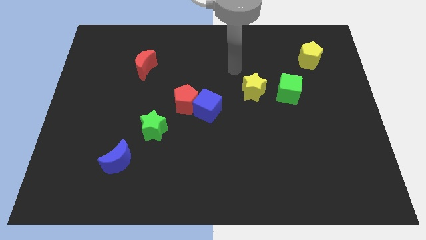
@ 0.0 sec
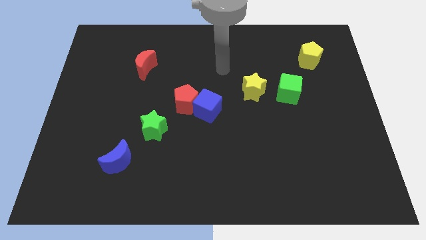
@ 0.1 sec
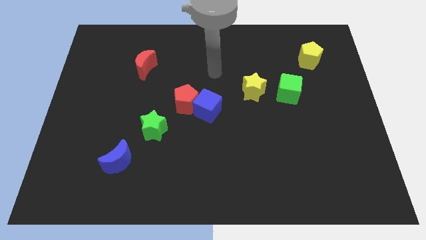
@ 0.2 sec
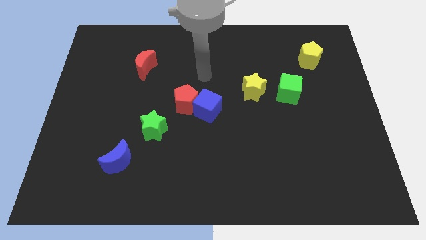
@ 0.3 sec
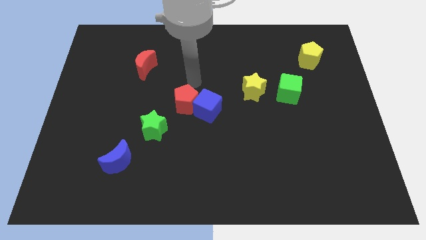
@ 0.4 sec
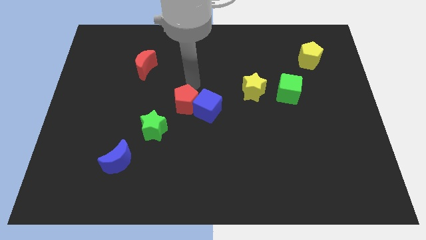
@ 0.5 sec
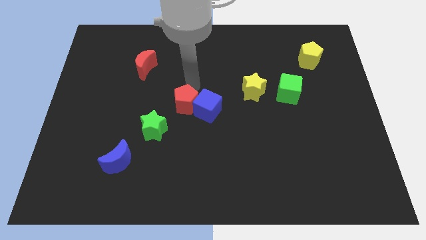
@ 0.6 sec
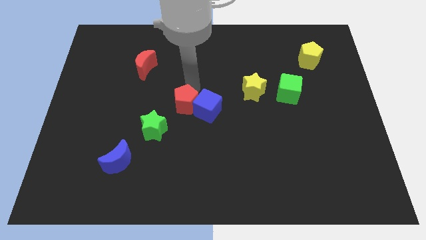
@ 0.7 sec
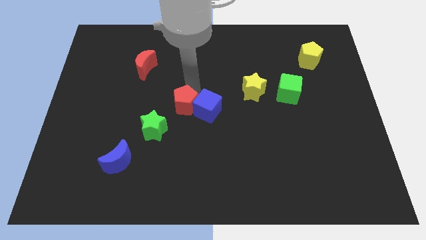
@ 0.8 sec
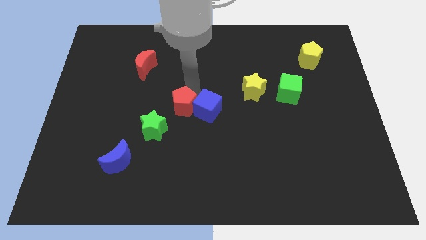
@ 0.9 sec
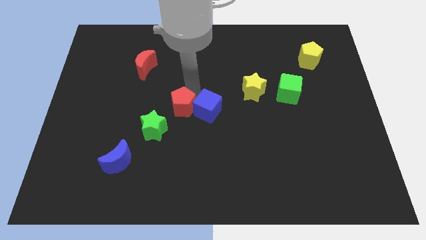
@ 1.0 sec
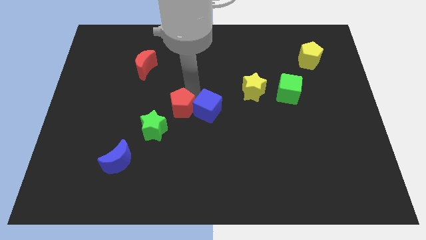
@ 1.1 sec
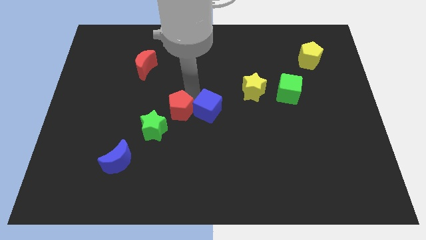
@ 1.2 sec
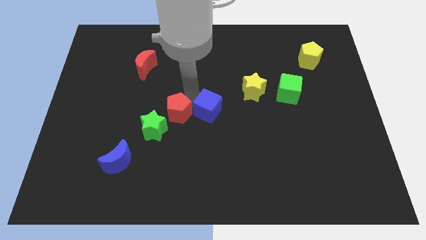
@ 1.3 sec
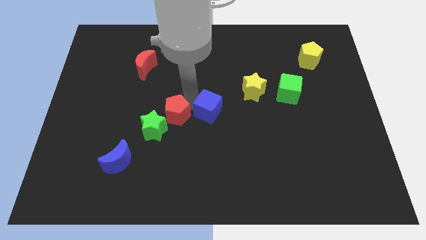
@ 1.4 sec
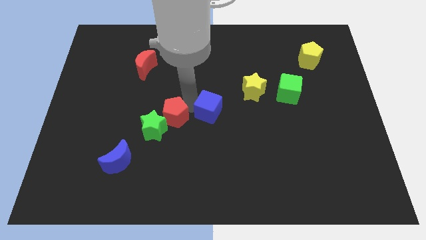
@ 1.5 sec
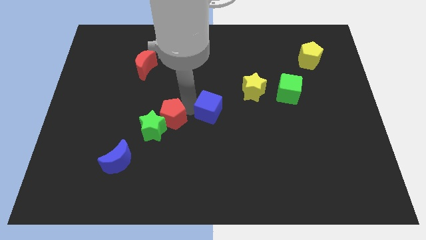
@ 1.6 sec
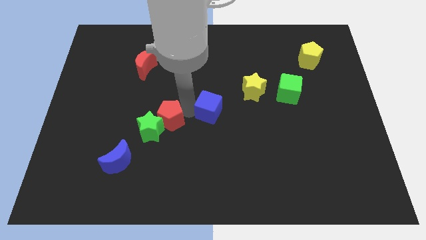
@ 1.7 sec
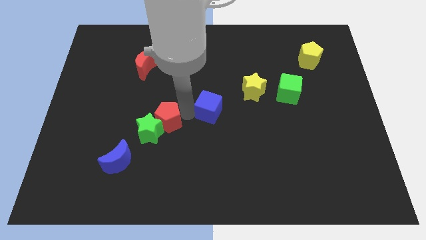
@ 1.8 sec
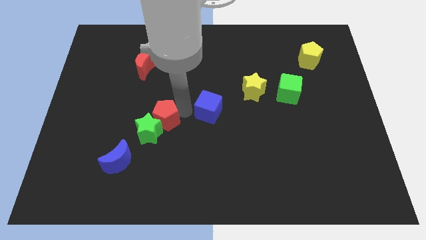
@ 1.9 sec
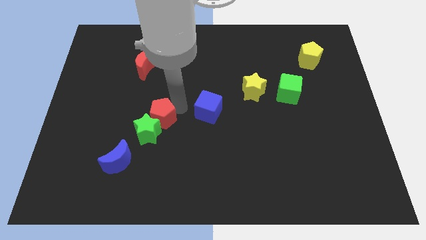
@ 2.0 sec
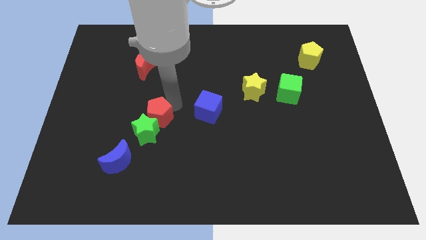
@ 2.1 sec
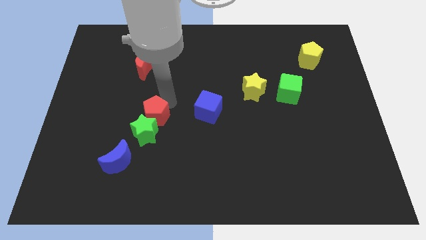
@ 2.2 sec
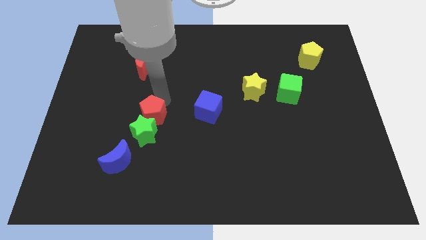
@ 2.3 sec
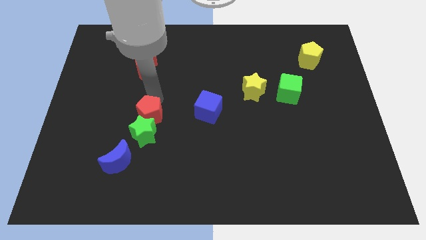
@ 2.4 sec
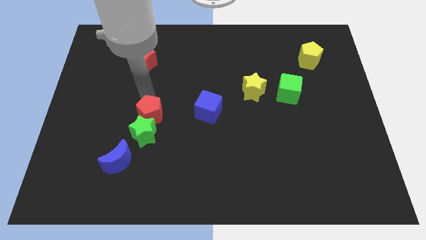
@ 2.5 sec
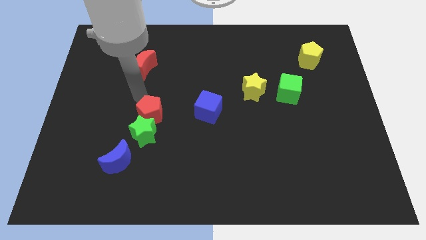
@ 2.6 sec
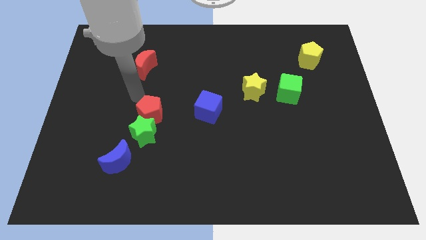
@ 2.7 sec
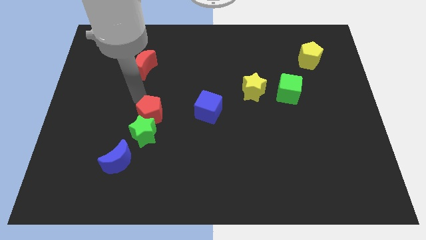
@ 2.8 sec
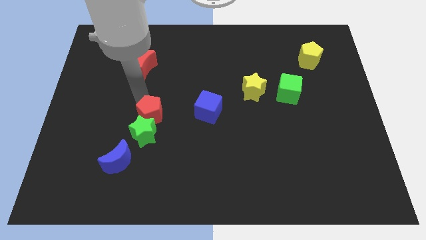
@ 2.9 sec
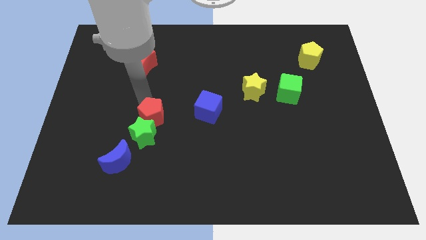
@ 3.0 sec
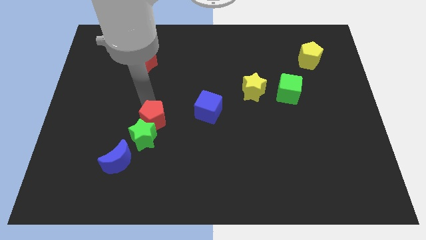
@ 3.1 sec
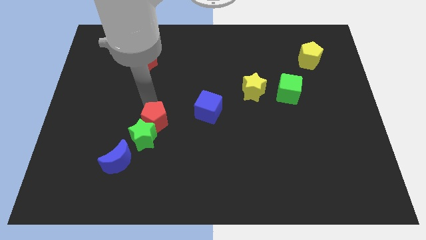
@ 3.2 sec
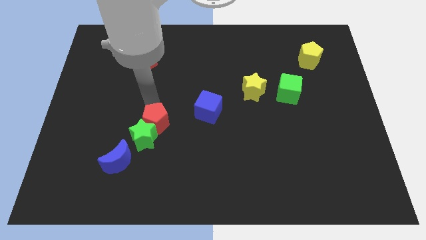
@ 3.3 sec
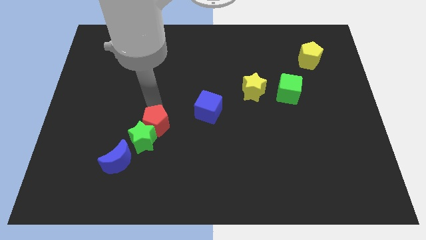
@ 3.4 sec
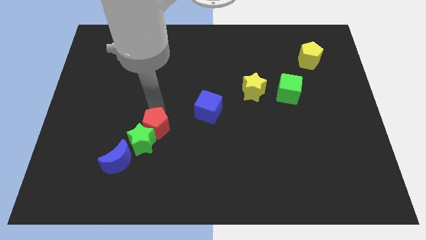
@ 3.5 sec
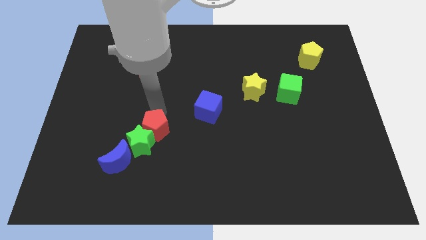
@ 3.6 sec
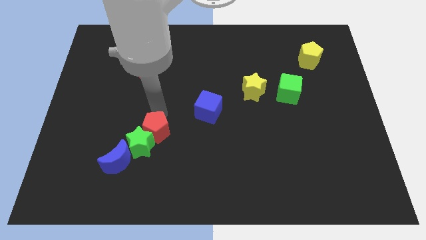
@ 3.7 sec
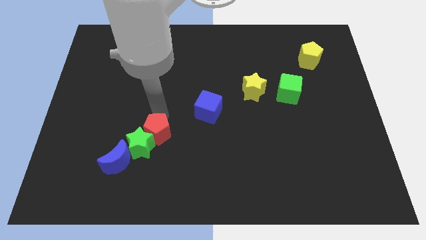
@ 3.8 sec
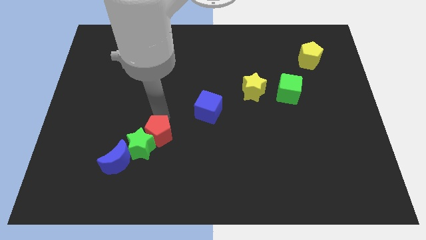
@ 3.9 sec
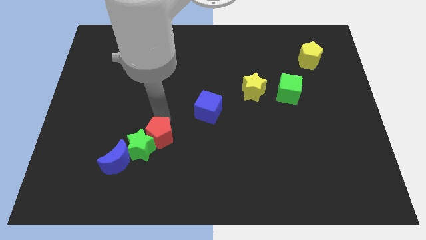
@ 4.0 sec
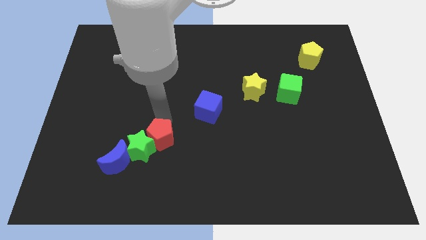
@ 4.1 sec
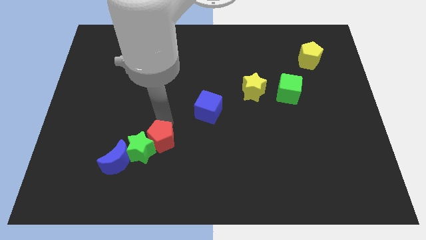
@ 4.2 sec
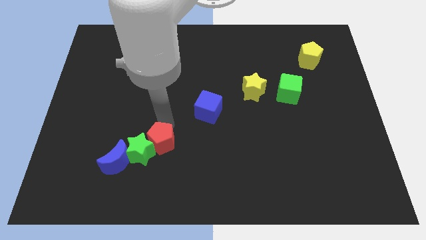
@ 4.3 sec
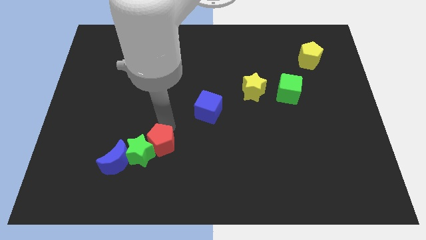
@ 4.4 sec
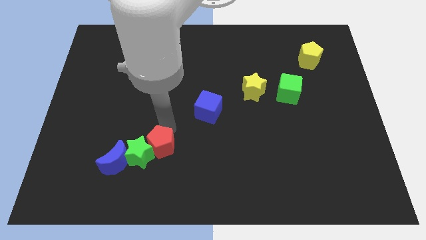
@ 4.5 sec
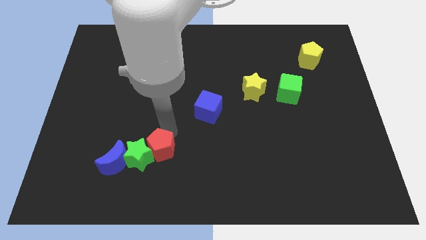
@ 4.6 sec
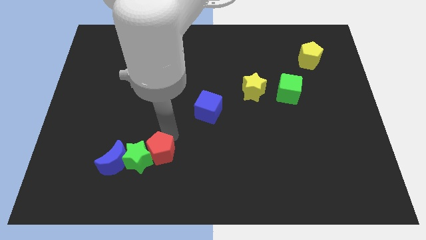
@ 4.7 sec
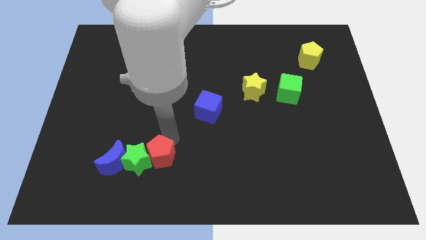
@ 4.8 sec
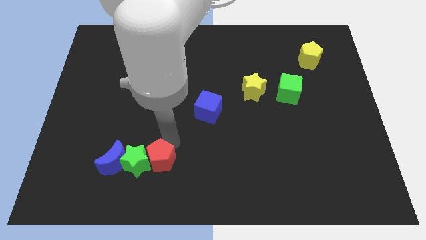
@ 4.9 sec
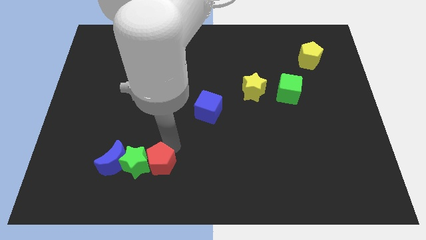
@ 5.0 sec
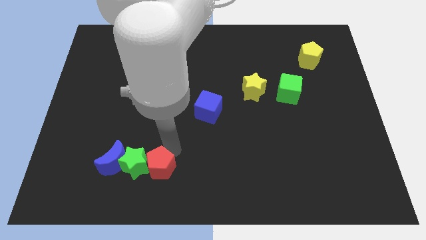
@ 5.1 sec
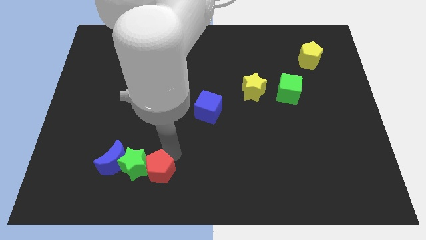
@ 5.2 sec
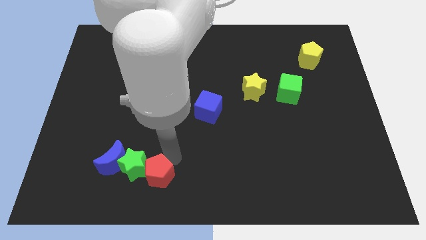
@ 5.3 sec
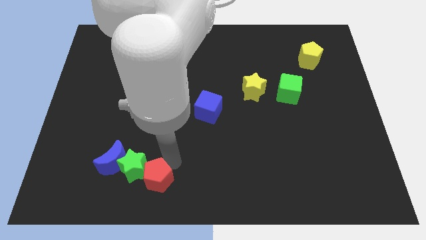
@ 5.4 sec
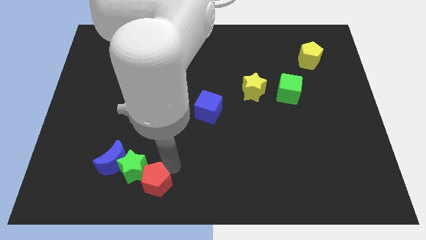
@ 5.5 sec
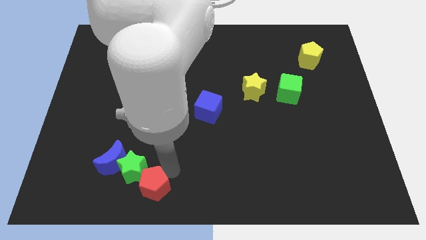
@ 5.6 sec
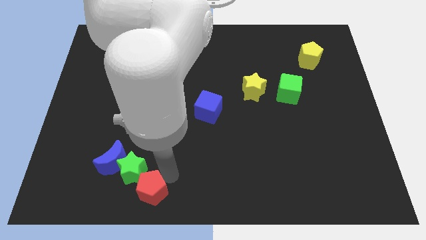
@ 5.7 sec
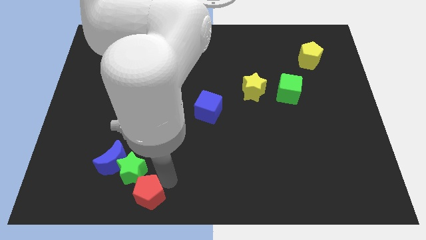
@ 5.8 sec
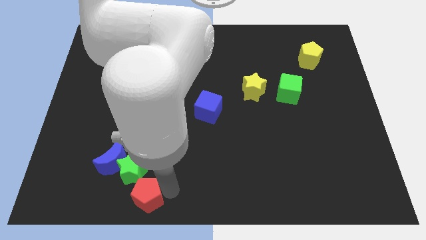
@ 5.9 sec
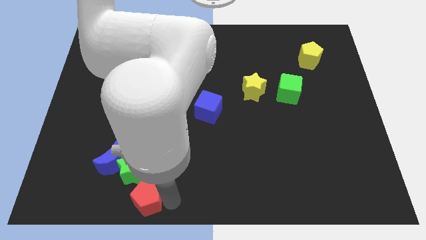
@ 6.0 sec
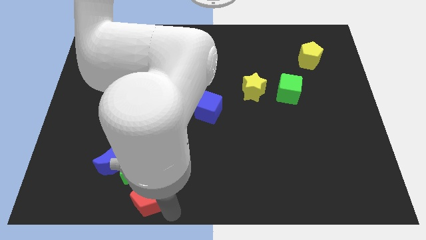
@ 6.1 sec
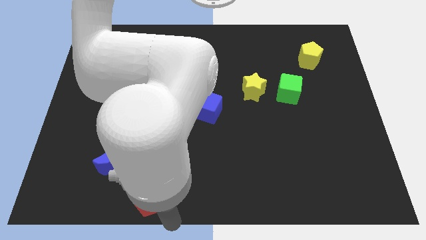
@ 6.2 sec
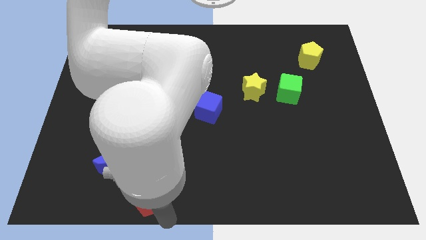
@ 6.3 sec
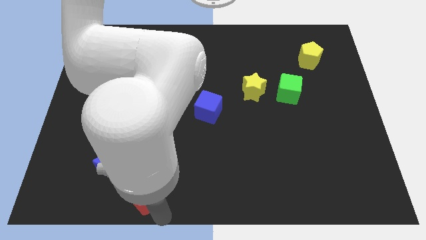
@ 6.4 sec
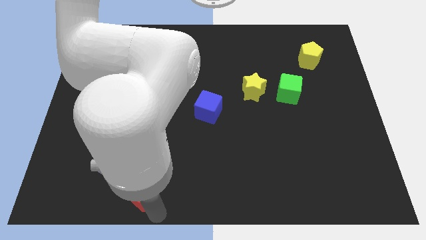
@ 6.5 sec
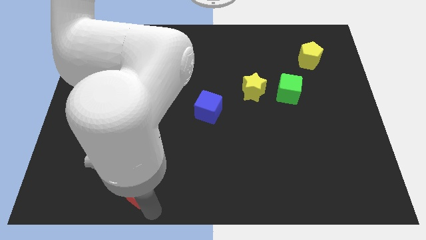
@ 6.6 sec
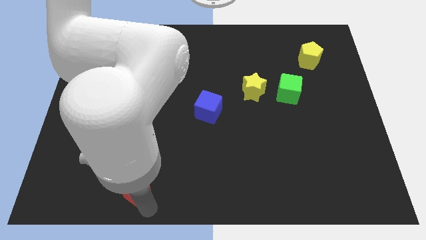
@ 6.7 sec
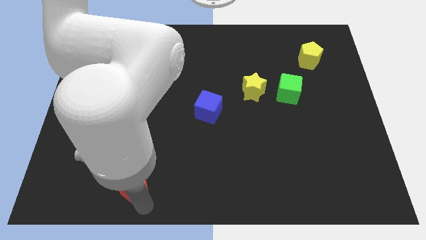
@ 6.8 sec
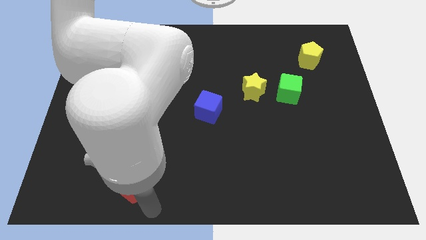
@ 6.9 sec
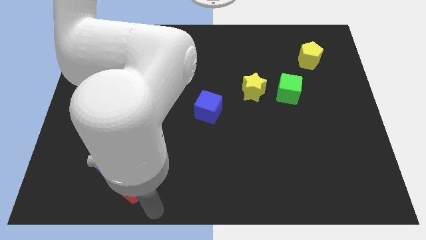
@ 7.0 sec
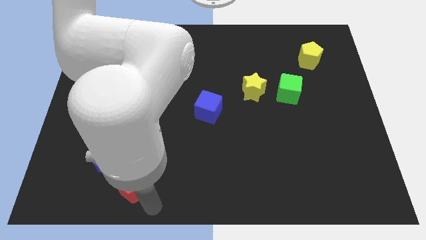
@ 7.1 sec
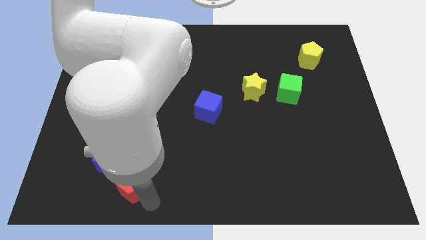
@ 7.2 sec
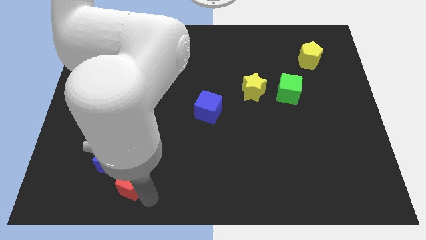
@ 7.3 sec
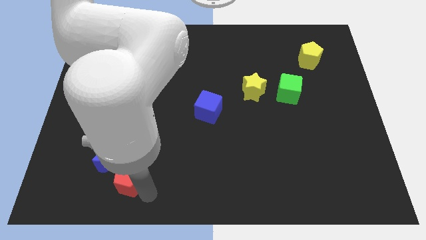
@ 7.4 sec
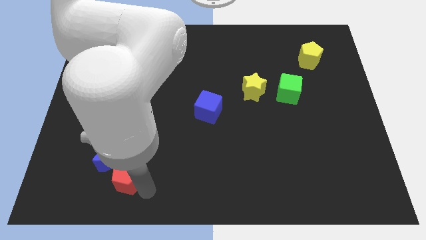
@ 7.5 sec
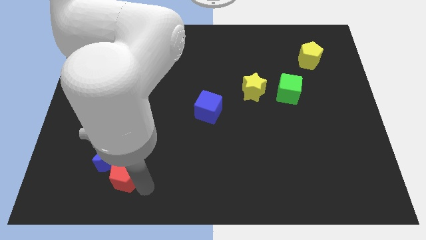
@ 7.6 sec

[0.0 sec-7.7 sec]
put the red pentagon close to the blue moon
